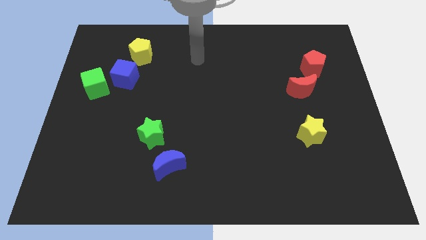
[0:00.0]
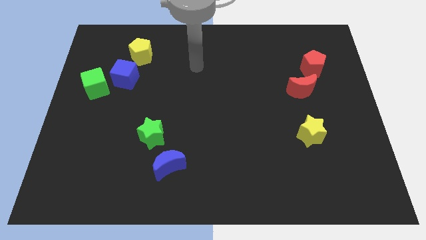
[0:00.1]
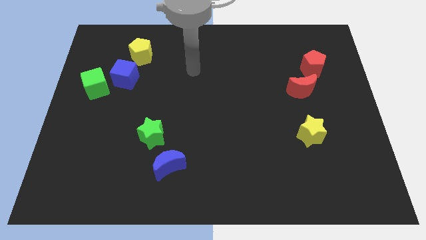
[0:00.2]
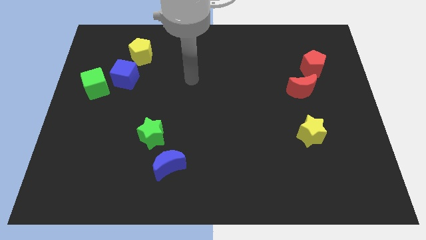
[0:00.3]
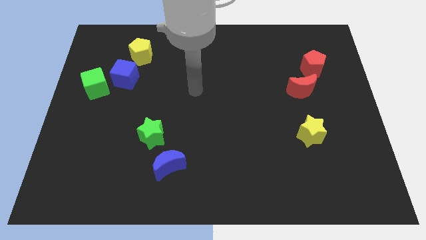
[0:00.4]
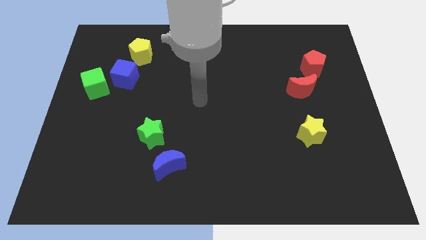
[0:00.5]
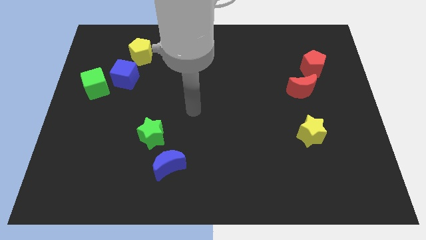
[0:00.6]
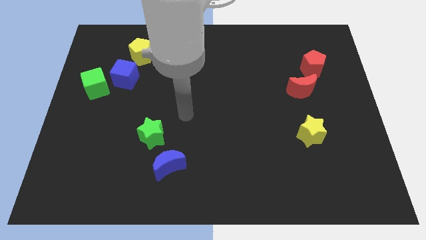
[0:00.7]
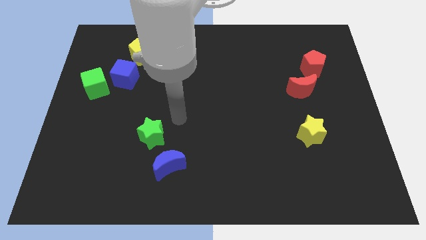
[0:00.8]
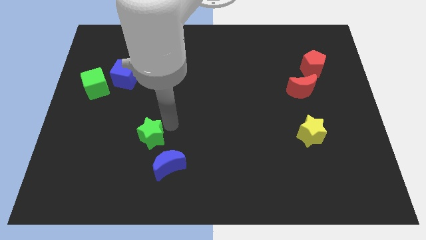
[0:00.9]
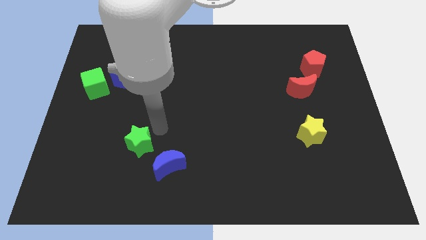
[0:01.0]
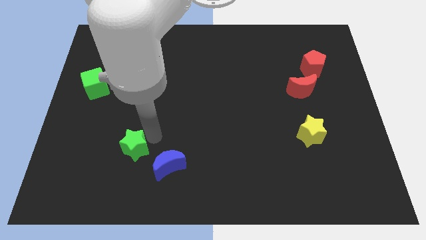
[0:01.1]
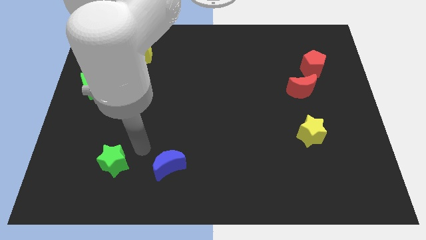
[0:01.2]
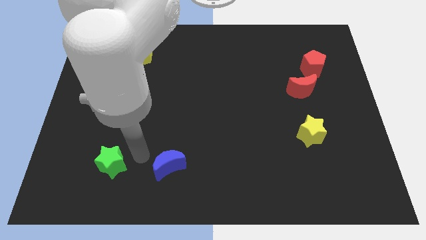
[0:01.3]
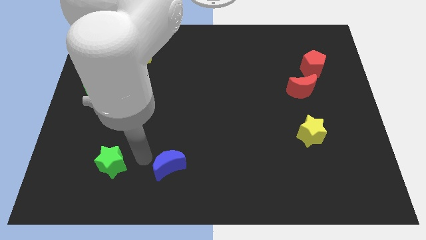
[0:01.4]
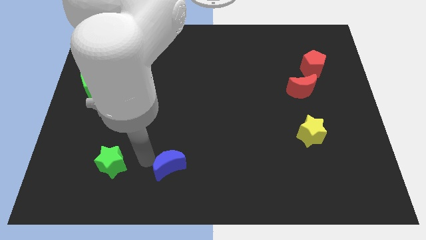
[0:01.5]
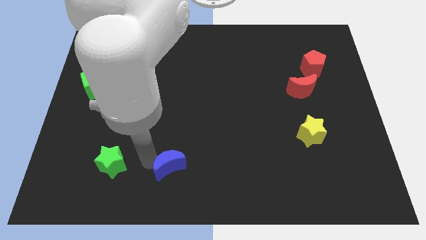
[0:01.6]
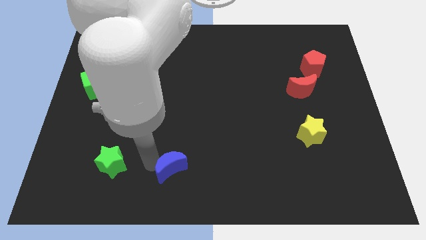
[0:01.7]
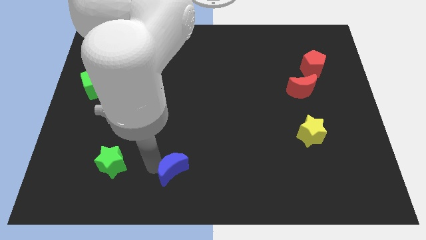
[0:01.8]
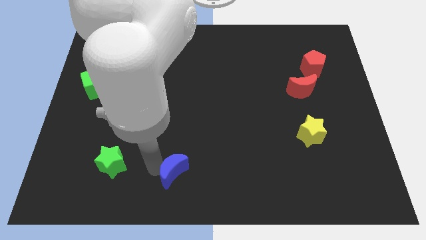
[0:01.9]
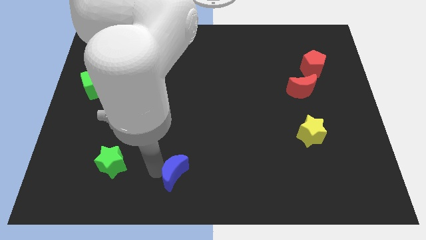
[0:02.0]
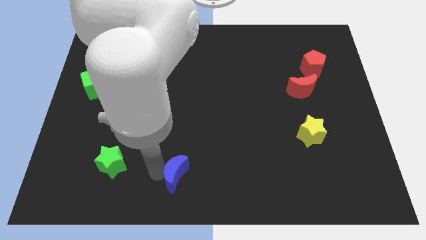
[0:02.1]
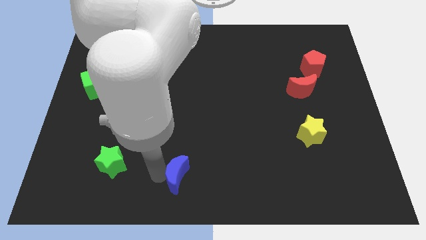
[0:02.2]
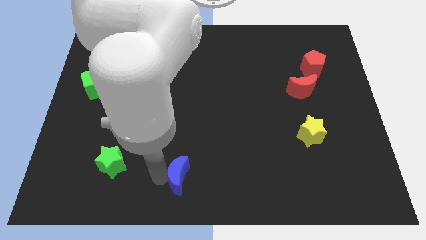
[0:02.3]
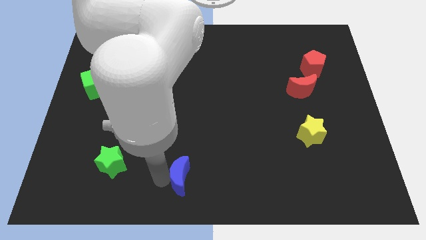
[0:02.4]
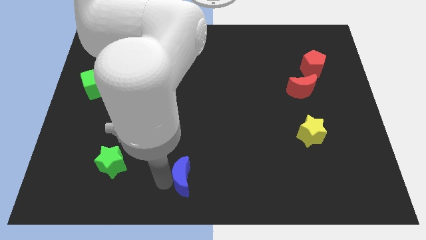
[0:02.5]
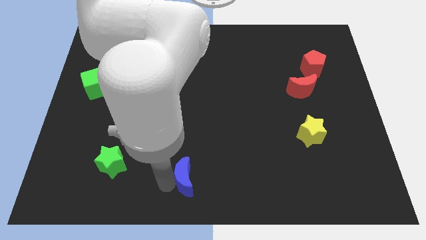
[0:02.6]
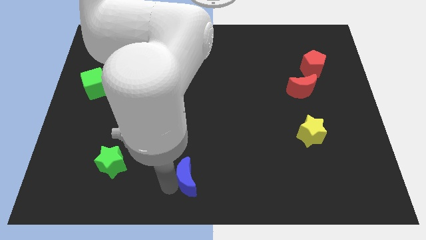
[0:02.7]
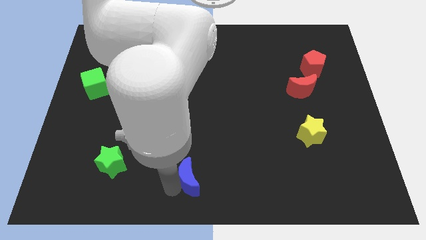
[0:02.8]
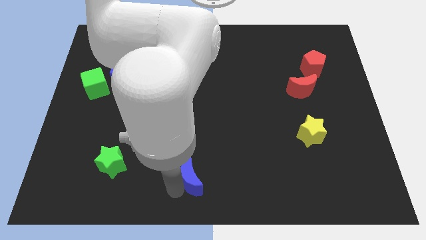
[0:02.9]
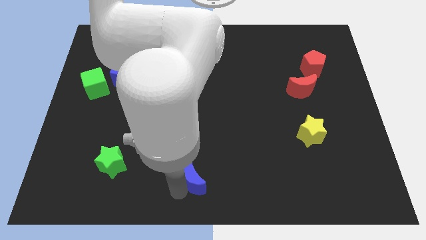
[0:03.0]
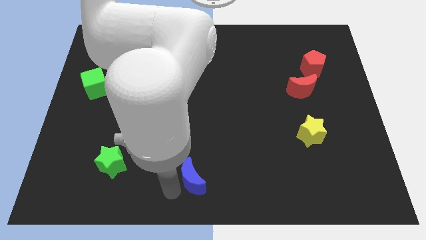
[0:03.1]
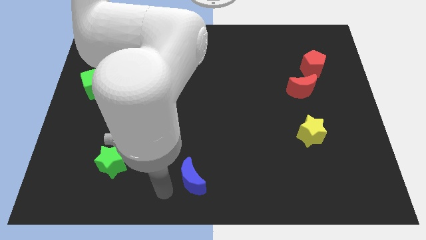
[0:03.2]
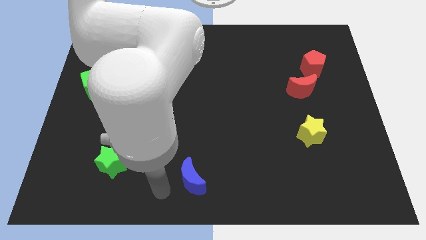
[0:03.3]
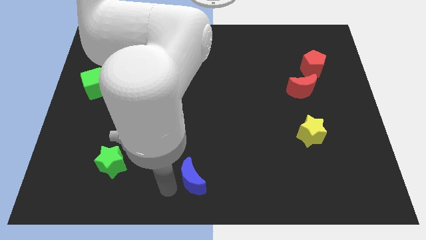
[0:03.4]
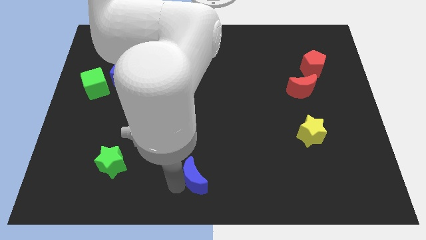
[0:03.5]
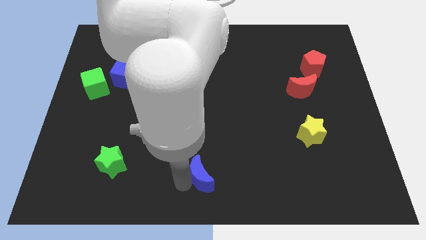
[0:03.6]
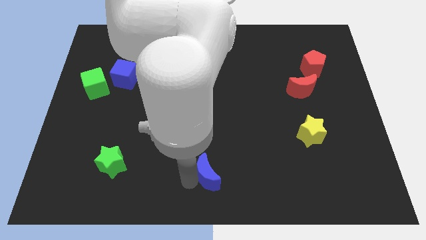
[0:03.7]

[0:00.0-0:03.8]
move the blue moon right slightly

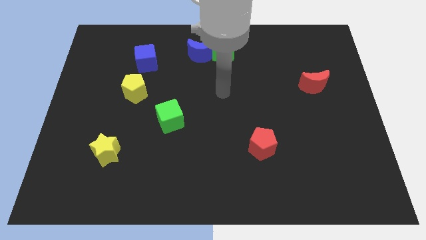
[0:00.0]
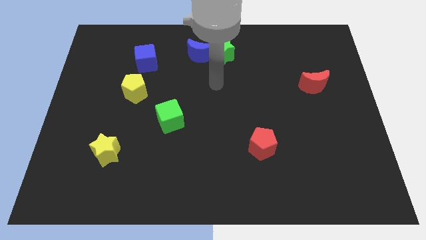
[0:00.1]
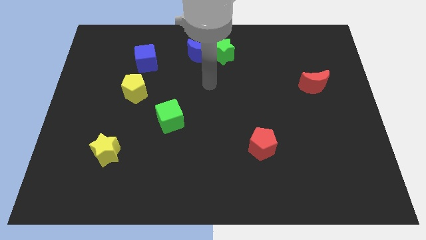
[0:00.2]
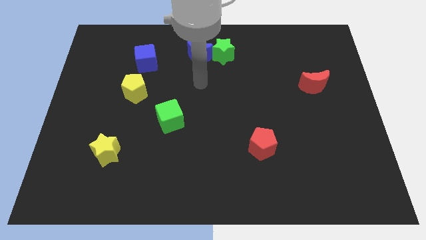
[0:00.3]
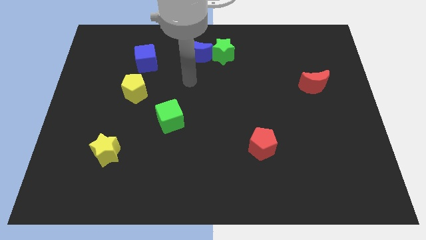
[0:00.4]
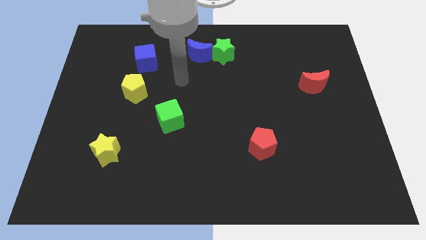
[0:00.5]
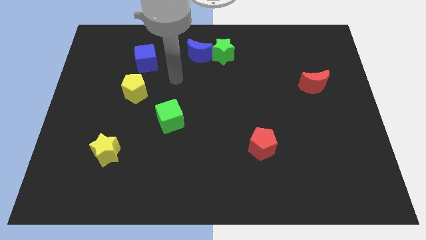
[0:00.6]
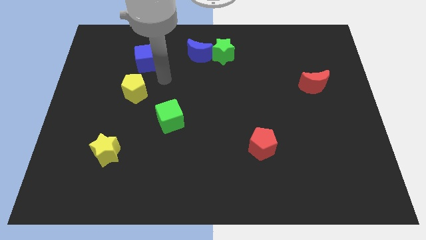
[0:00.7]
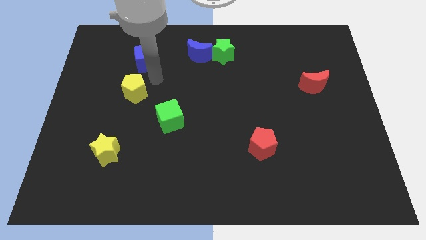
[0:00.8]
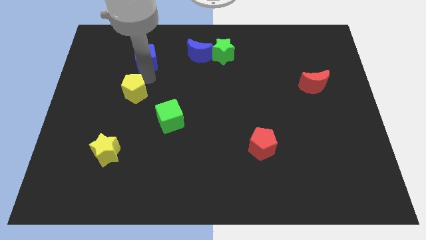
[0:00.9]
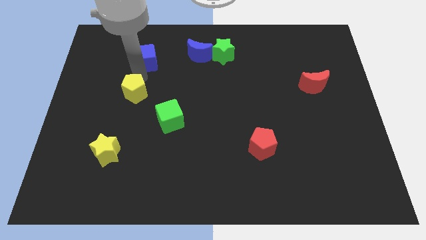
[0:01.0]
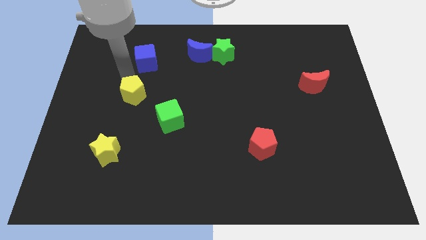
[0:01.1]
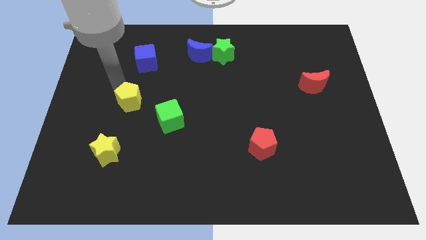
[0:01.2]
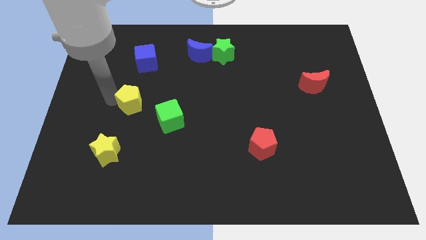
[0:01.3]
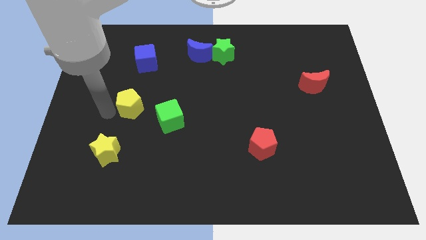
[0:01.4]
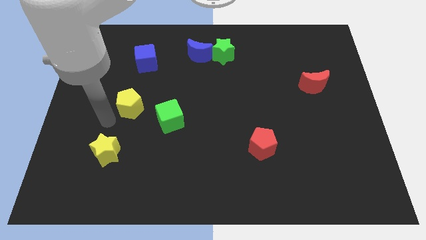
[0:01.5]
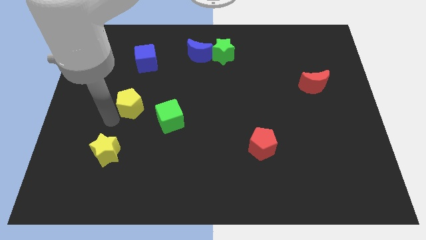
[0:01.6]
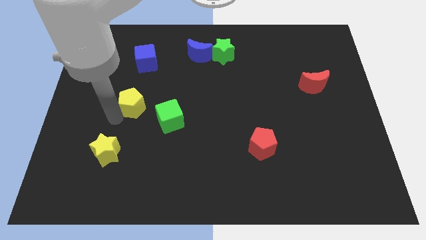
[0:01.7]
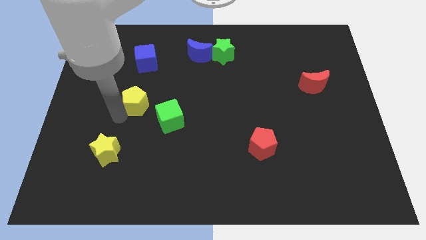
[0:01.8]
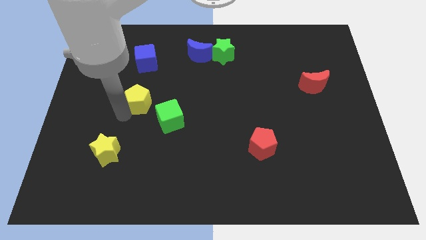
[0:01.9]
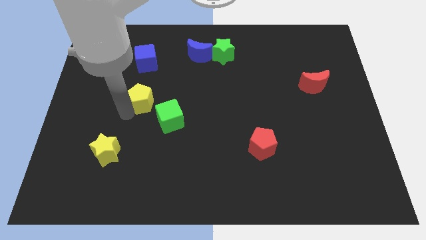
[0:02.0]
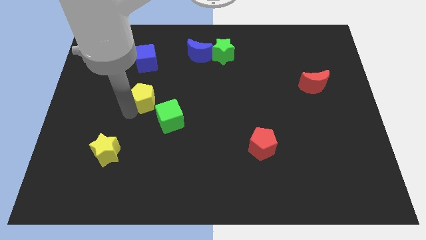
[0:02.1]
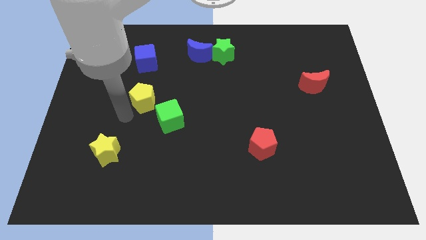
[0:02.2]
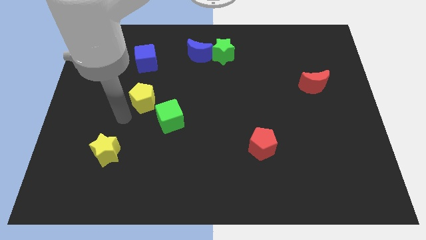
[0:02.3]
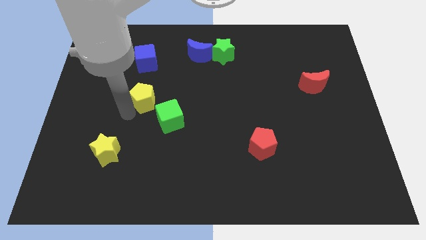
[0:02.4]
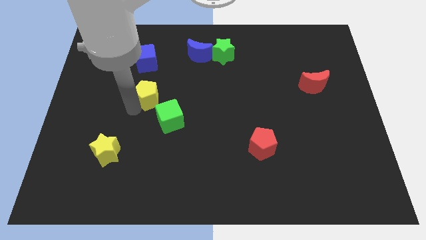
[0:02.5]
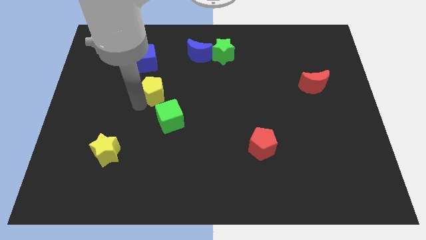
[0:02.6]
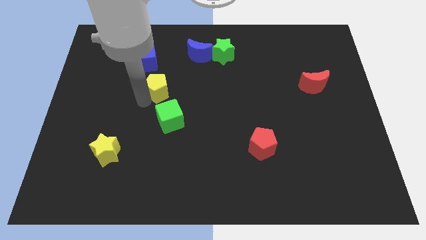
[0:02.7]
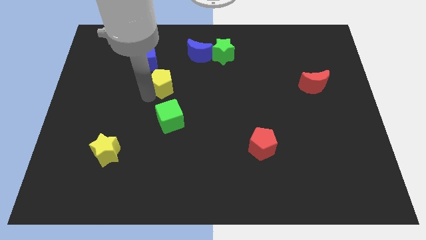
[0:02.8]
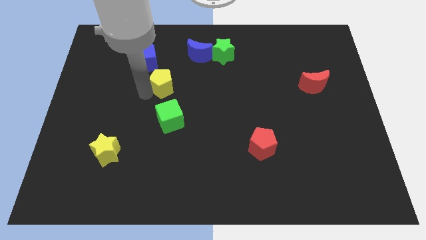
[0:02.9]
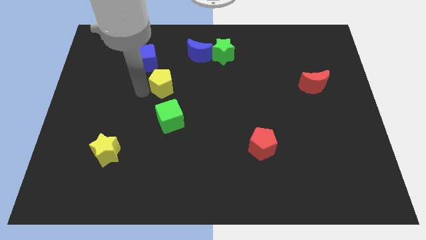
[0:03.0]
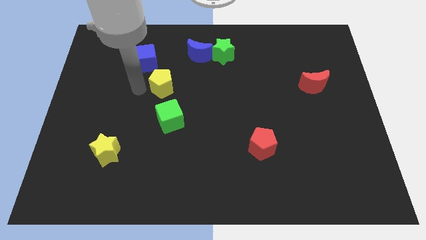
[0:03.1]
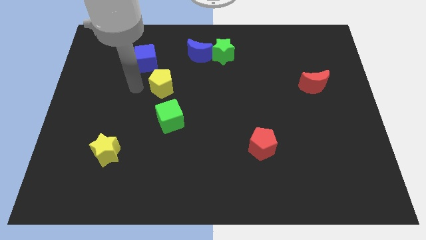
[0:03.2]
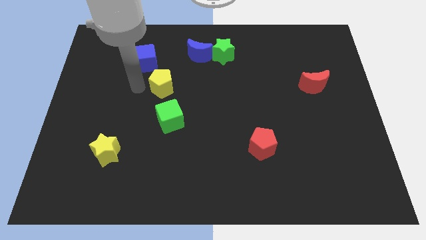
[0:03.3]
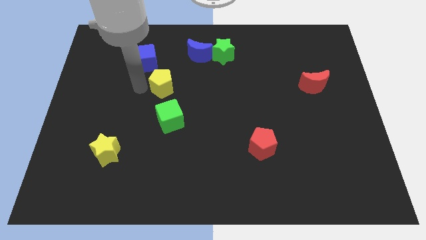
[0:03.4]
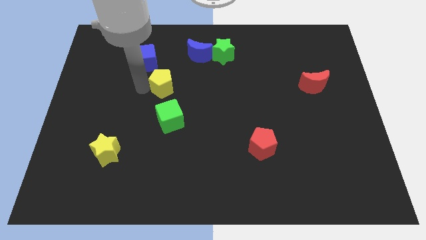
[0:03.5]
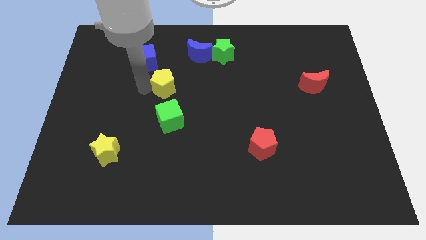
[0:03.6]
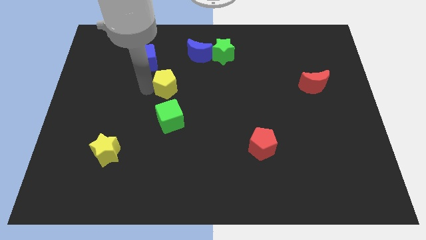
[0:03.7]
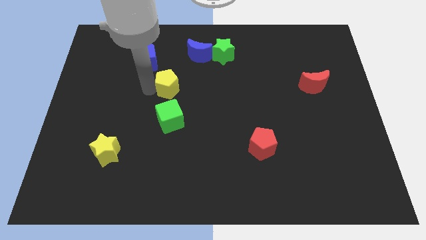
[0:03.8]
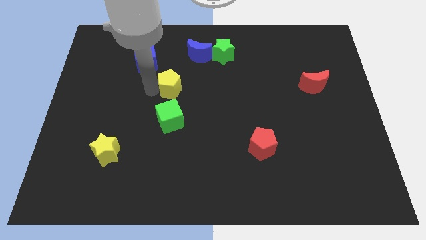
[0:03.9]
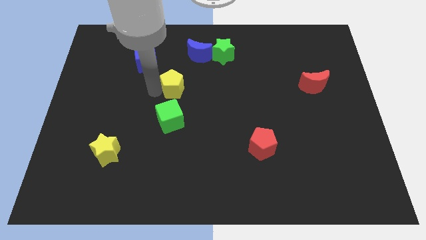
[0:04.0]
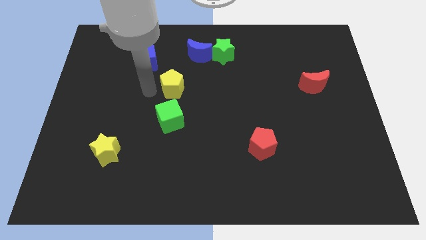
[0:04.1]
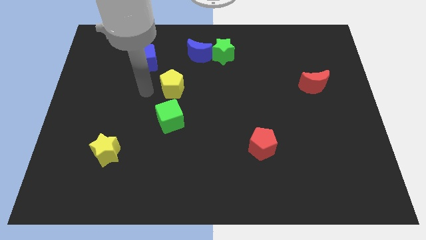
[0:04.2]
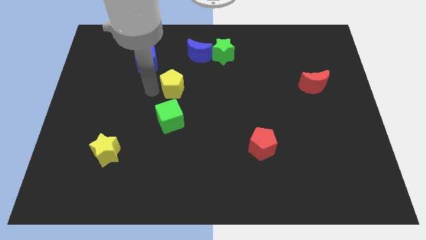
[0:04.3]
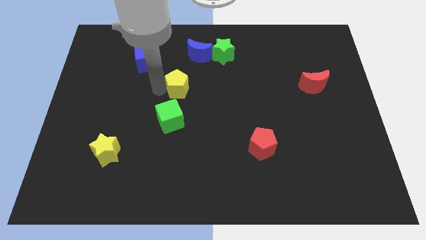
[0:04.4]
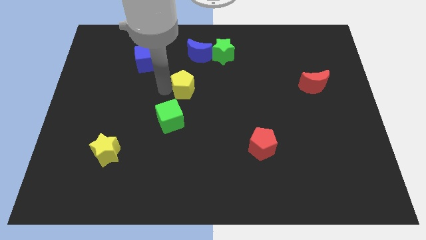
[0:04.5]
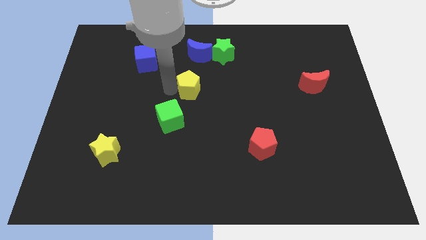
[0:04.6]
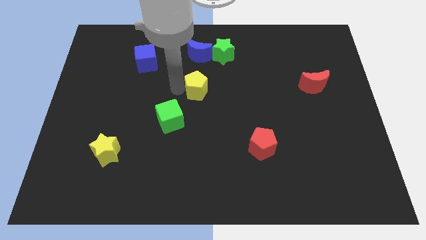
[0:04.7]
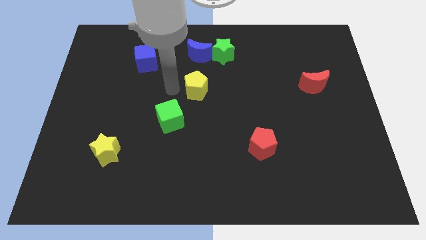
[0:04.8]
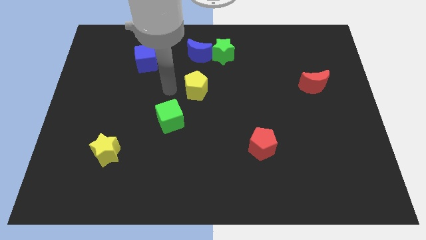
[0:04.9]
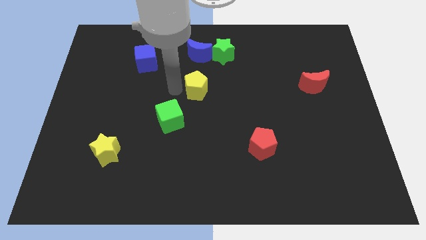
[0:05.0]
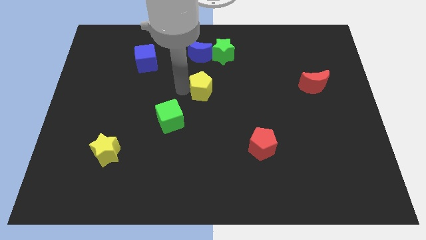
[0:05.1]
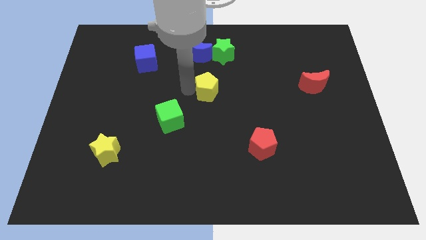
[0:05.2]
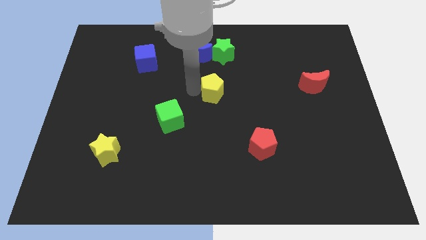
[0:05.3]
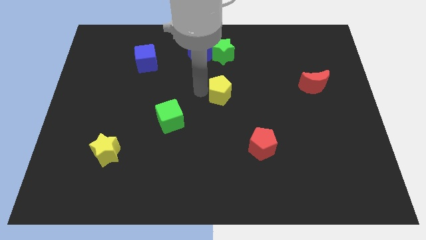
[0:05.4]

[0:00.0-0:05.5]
move the yellow pentagon to the right
